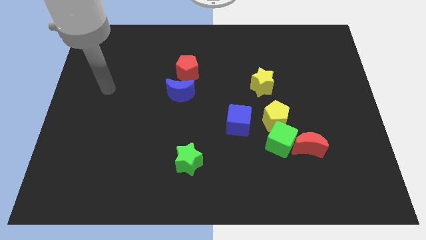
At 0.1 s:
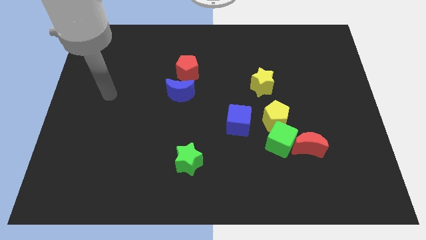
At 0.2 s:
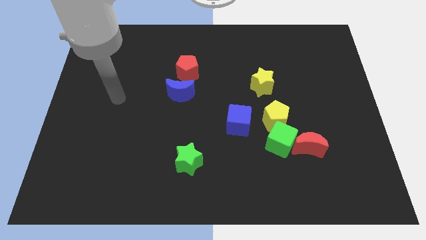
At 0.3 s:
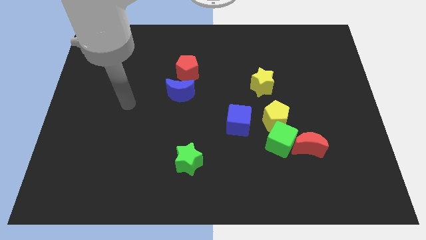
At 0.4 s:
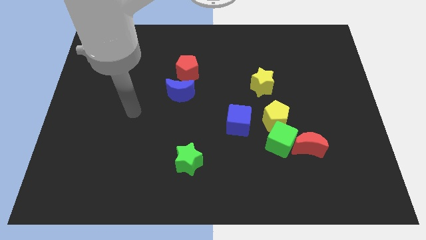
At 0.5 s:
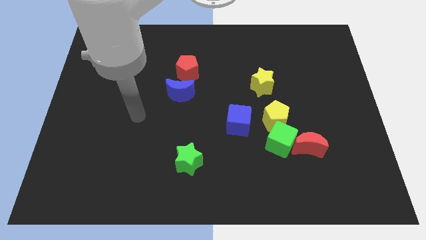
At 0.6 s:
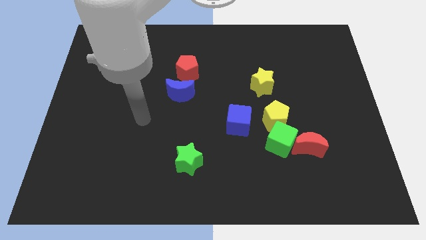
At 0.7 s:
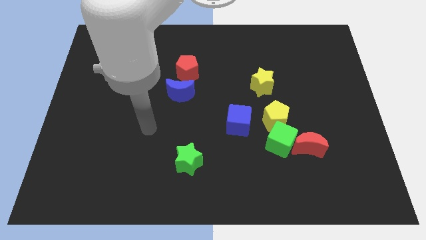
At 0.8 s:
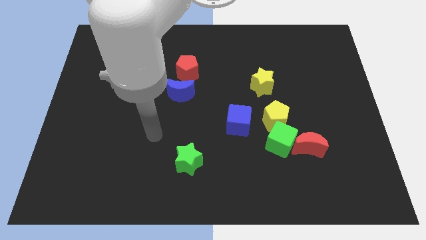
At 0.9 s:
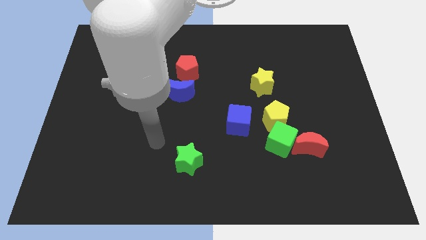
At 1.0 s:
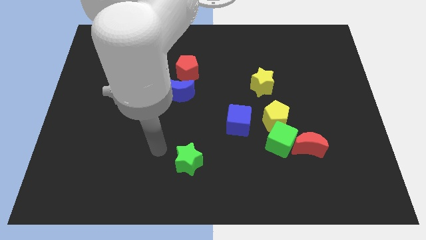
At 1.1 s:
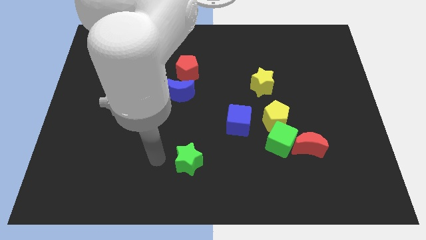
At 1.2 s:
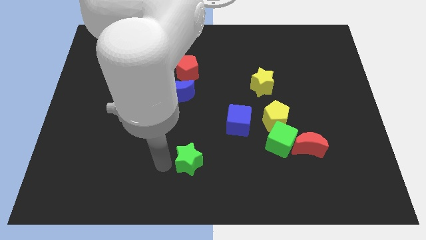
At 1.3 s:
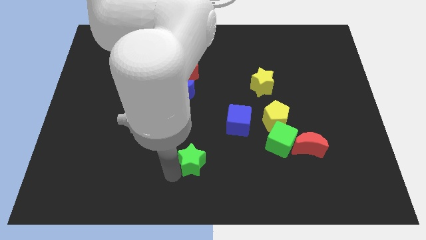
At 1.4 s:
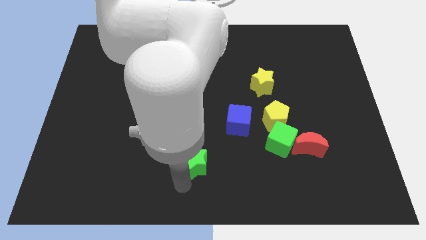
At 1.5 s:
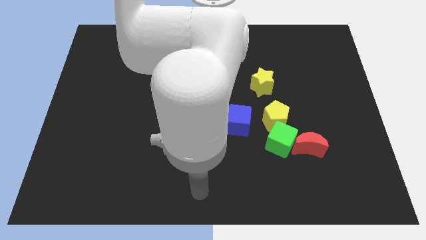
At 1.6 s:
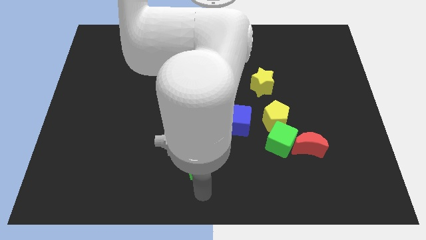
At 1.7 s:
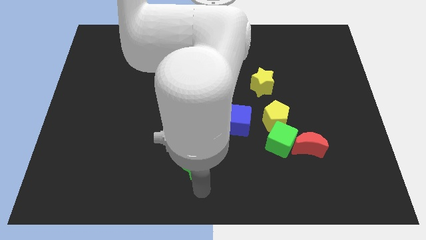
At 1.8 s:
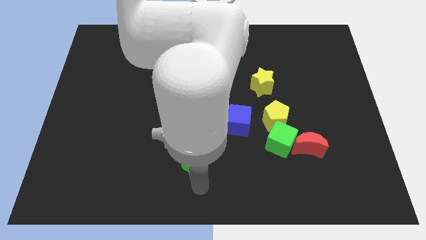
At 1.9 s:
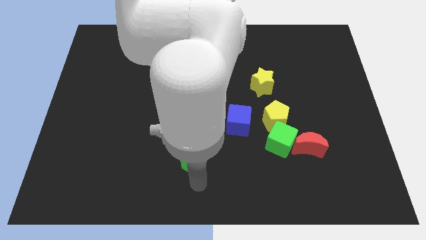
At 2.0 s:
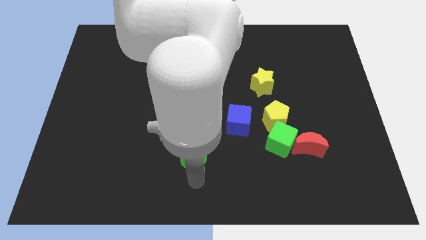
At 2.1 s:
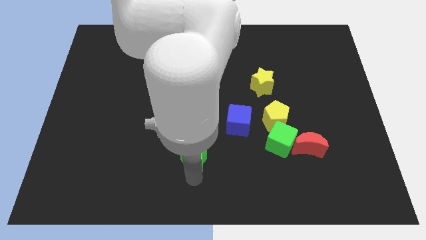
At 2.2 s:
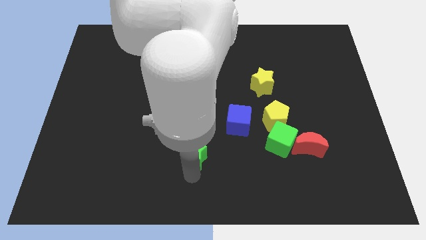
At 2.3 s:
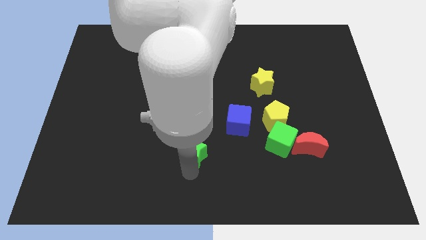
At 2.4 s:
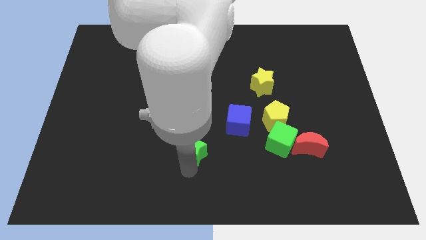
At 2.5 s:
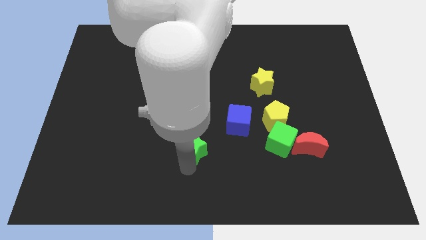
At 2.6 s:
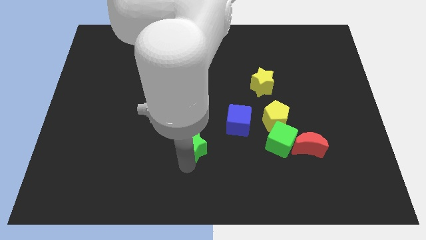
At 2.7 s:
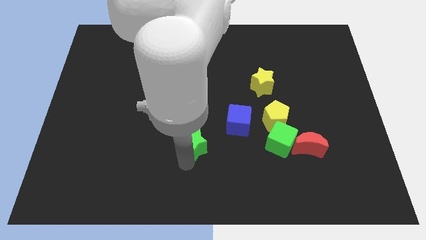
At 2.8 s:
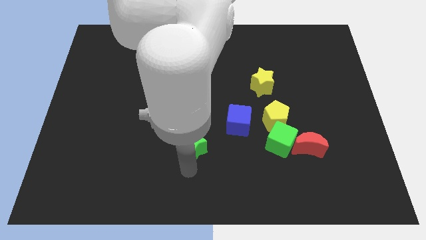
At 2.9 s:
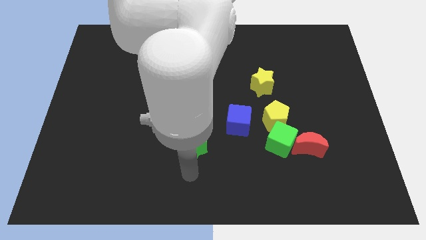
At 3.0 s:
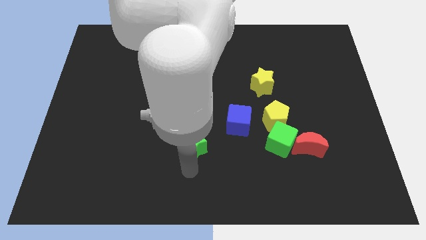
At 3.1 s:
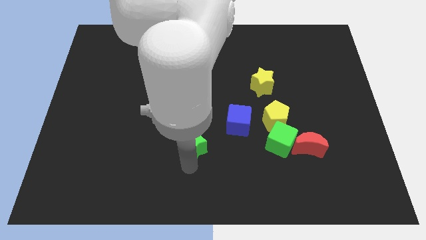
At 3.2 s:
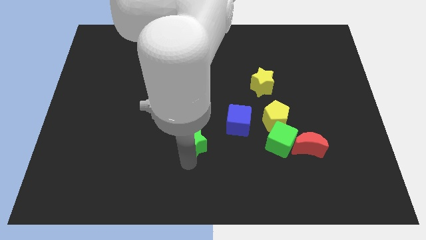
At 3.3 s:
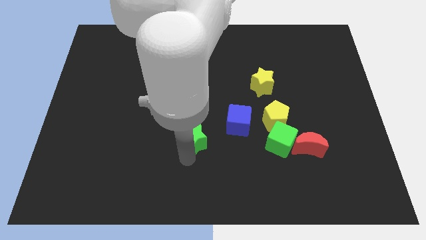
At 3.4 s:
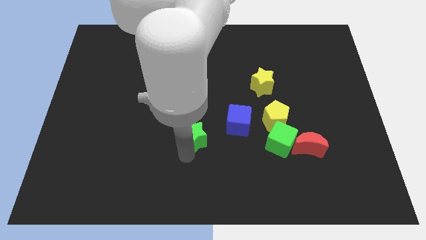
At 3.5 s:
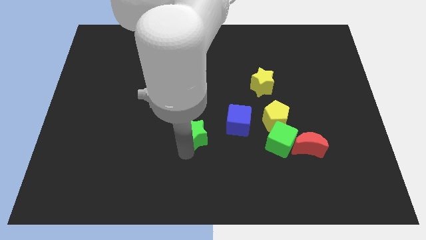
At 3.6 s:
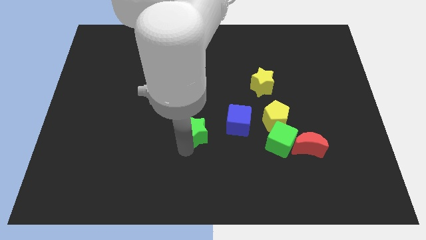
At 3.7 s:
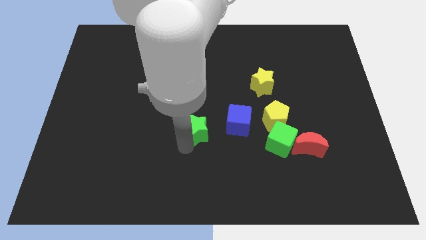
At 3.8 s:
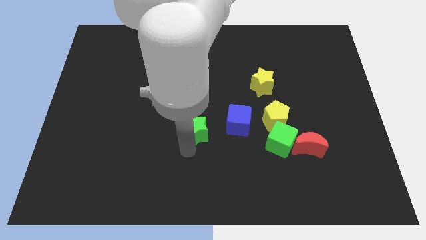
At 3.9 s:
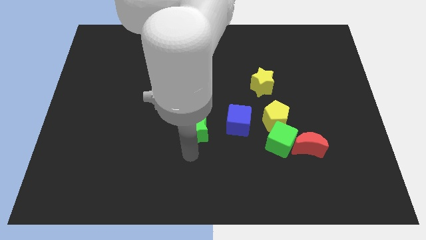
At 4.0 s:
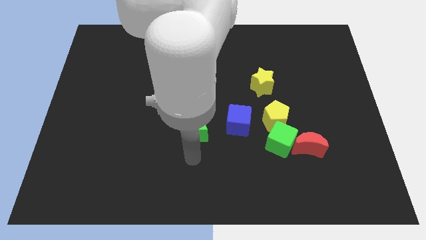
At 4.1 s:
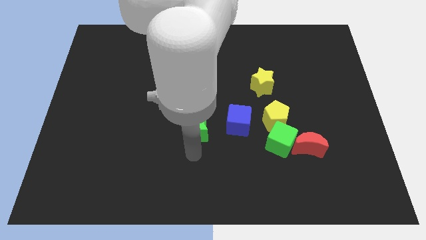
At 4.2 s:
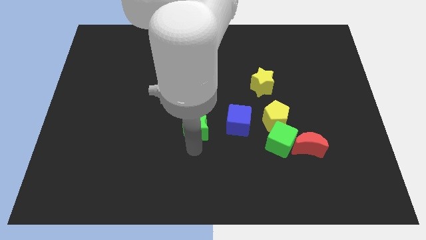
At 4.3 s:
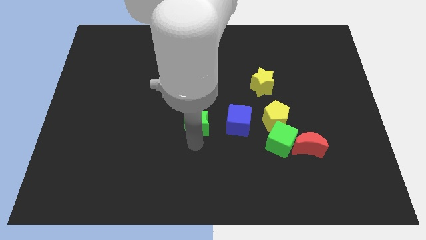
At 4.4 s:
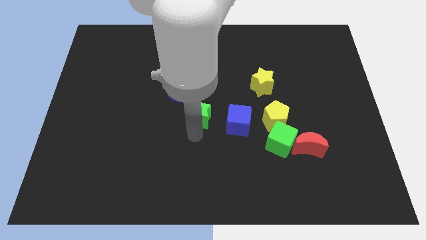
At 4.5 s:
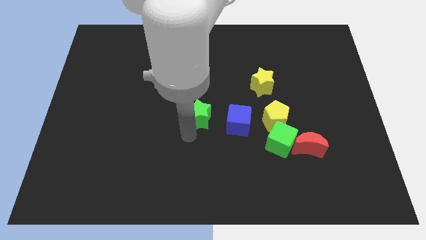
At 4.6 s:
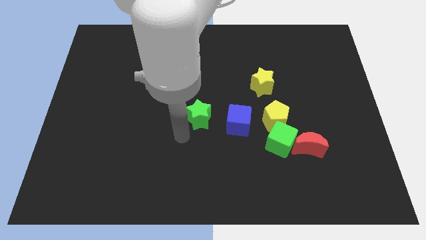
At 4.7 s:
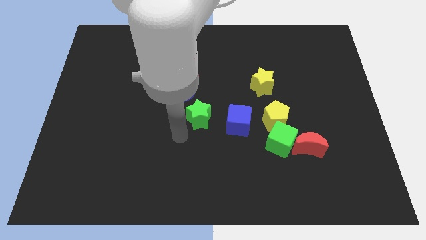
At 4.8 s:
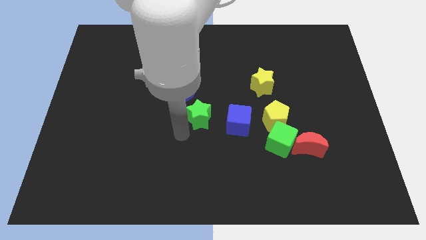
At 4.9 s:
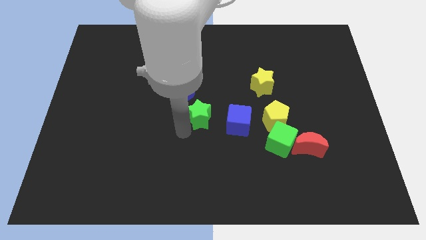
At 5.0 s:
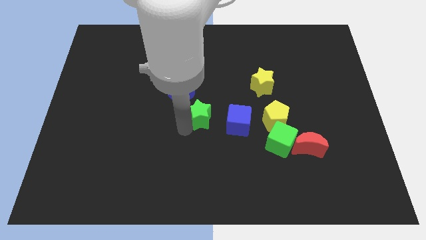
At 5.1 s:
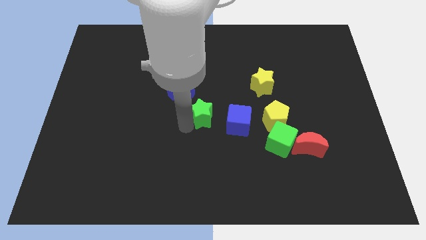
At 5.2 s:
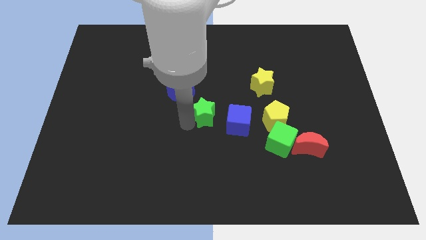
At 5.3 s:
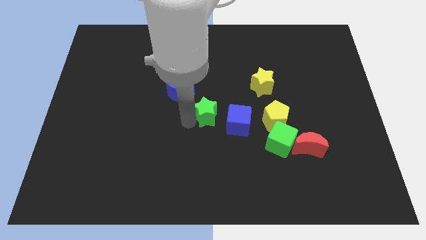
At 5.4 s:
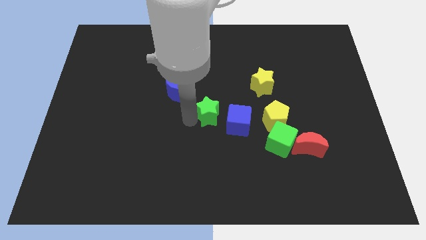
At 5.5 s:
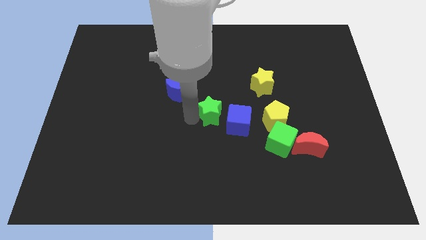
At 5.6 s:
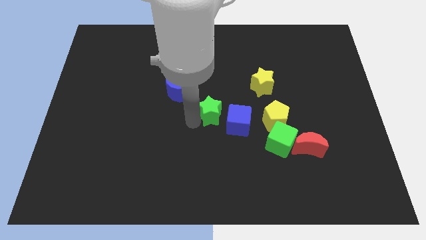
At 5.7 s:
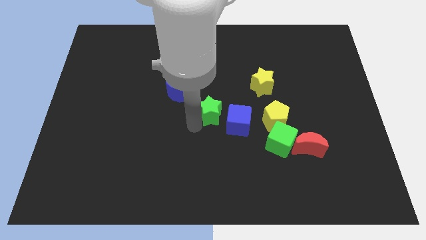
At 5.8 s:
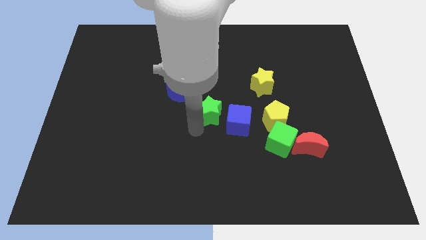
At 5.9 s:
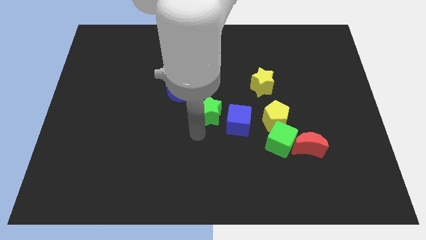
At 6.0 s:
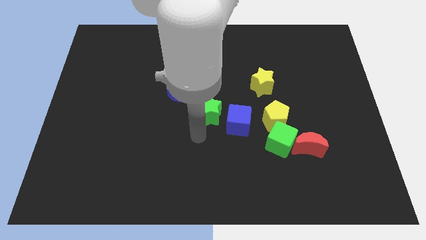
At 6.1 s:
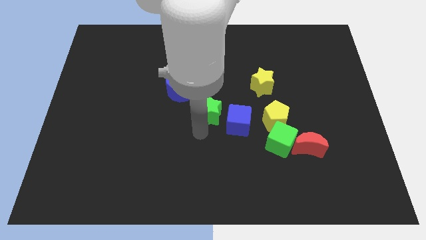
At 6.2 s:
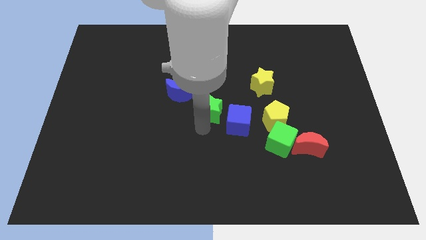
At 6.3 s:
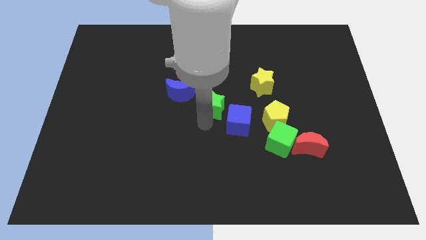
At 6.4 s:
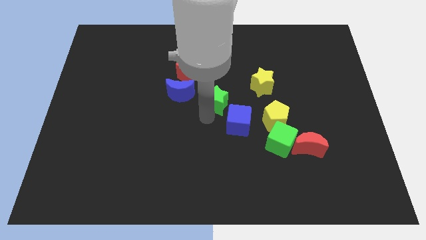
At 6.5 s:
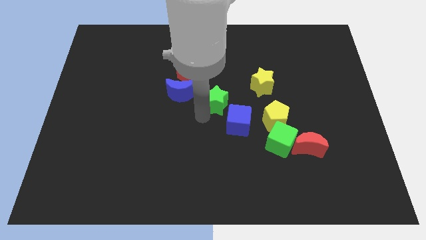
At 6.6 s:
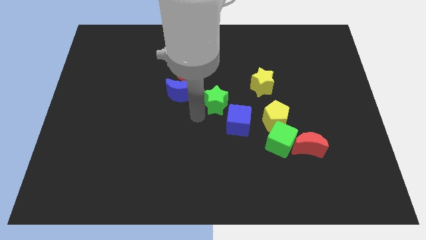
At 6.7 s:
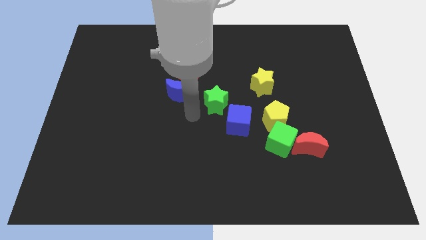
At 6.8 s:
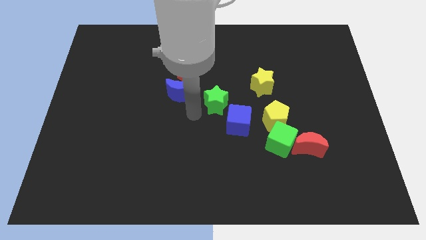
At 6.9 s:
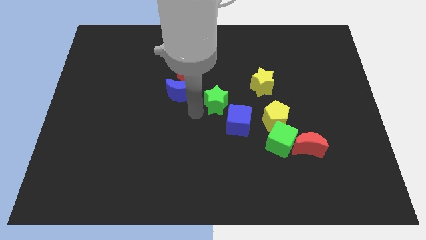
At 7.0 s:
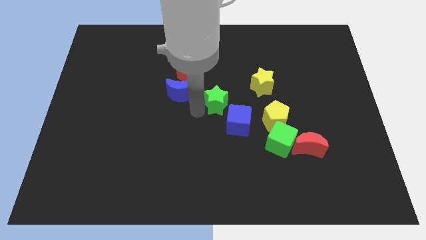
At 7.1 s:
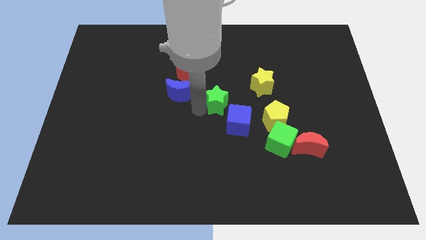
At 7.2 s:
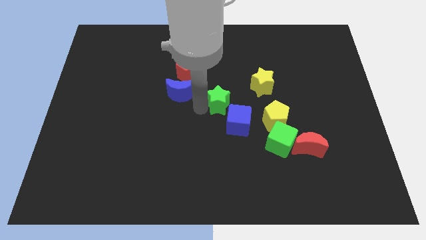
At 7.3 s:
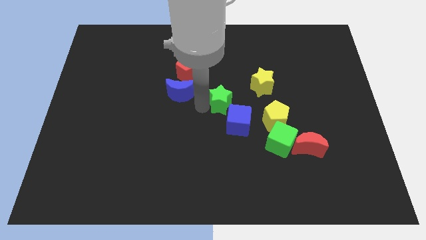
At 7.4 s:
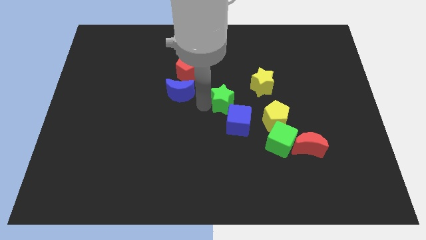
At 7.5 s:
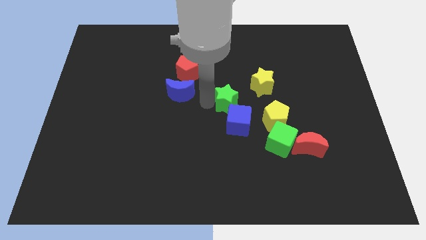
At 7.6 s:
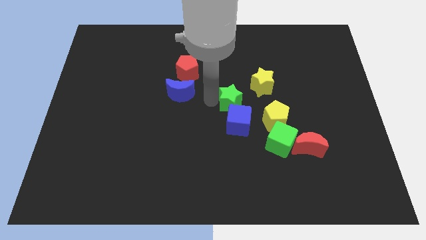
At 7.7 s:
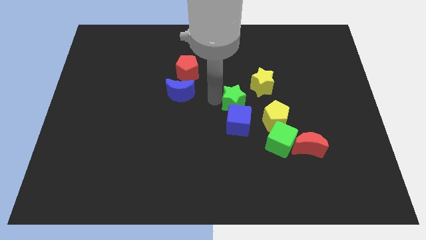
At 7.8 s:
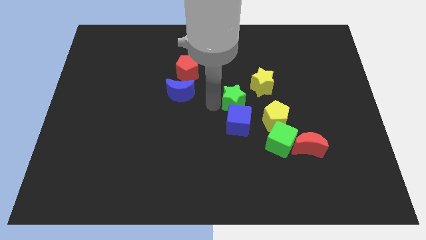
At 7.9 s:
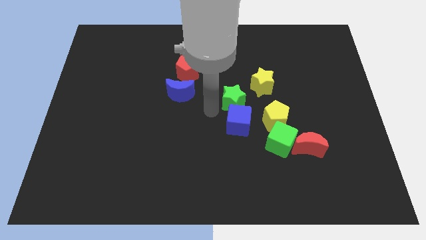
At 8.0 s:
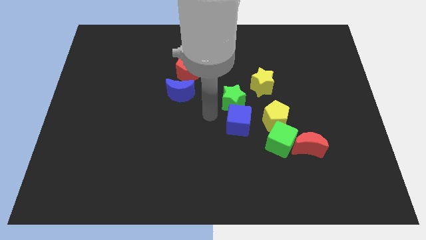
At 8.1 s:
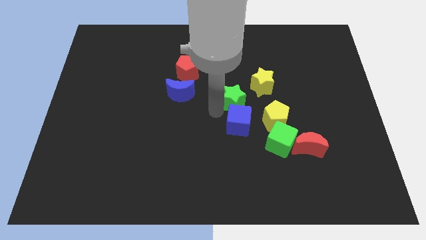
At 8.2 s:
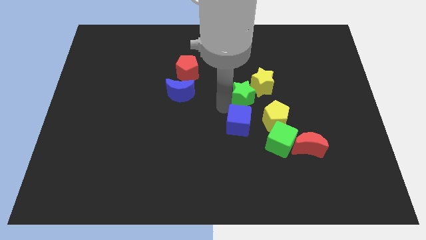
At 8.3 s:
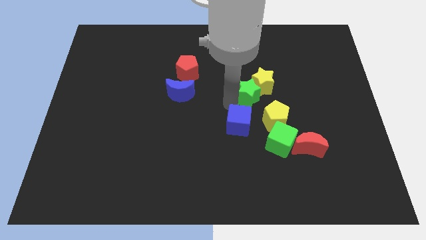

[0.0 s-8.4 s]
move the green star to the yellow star
